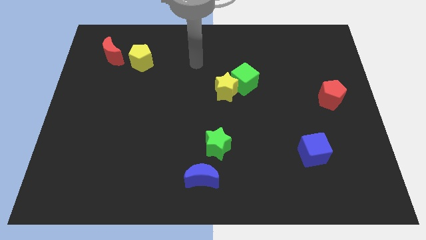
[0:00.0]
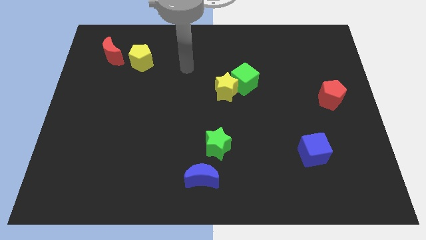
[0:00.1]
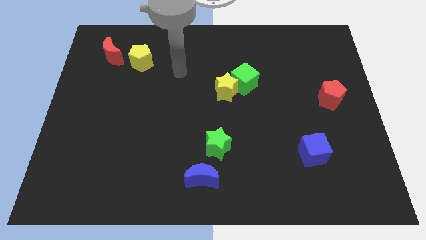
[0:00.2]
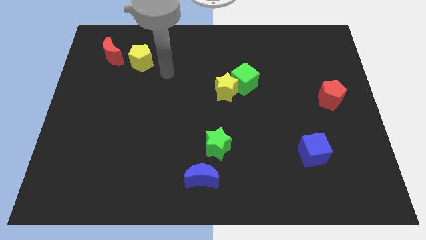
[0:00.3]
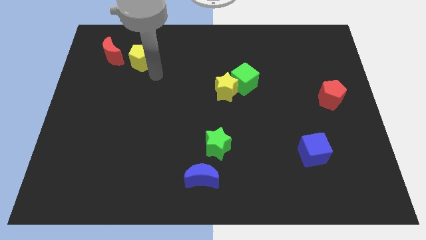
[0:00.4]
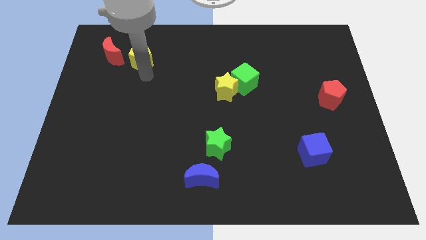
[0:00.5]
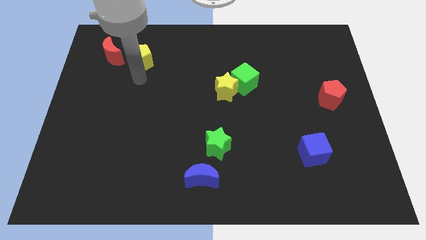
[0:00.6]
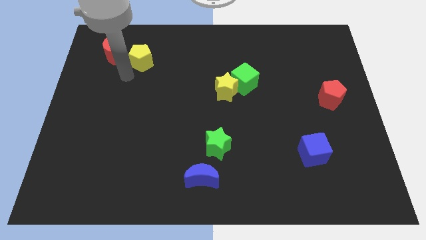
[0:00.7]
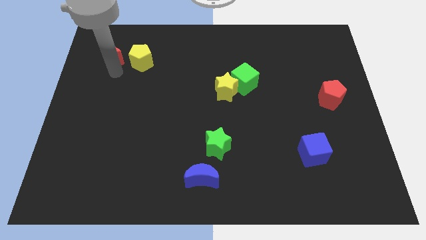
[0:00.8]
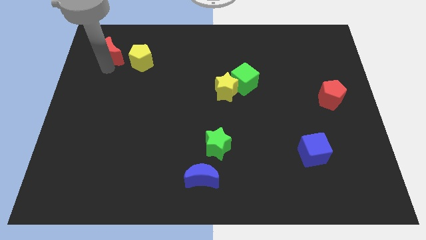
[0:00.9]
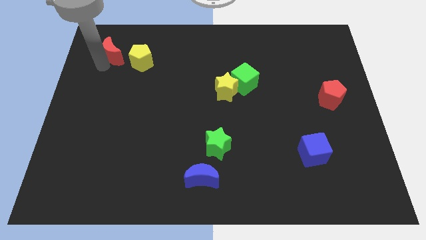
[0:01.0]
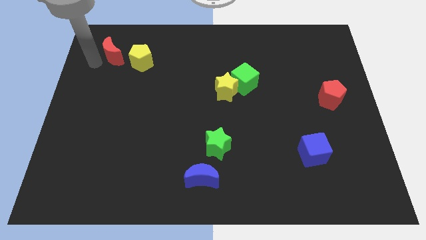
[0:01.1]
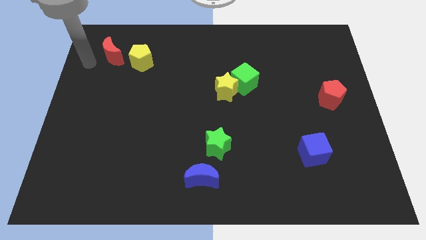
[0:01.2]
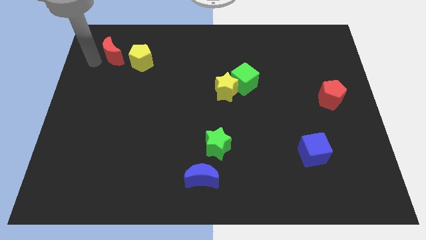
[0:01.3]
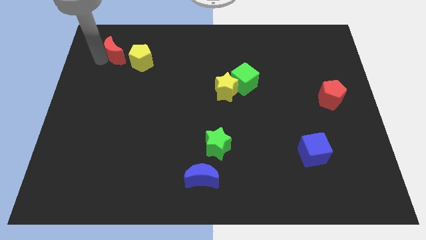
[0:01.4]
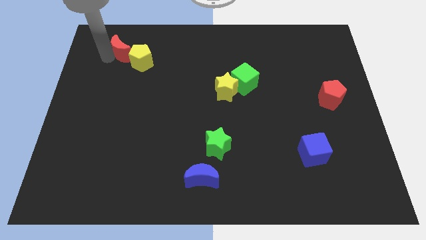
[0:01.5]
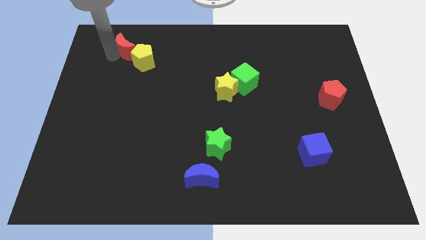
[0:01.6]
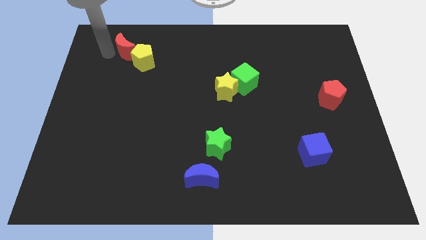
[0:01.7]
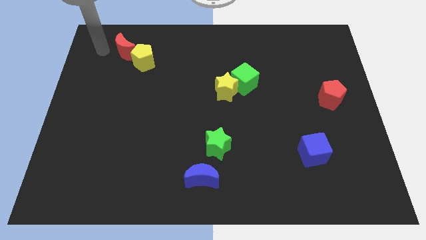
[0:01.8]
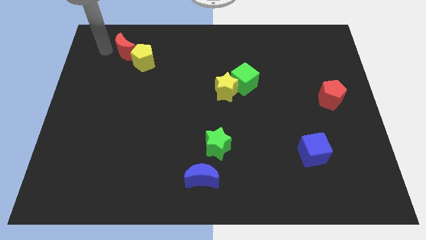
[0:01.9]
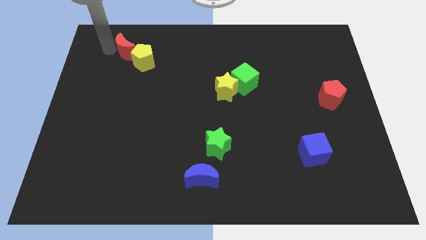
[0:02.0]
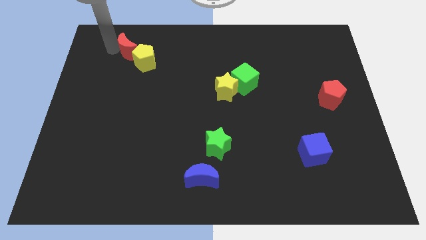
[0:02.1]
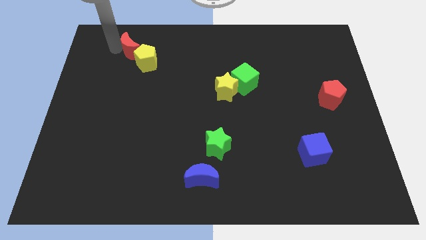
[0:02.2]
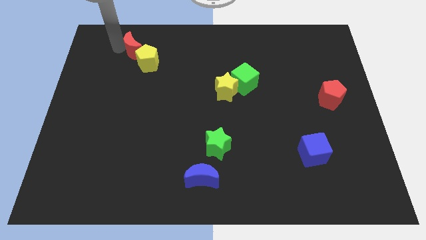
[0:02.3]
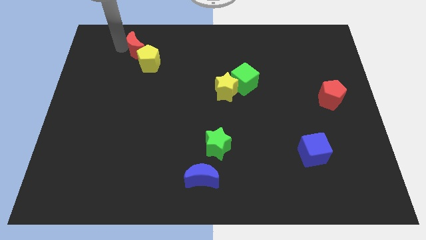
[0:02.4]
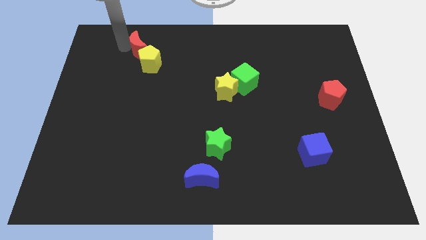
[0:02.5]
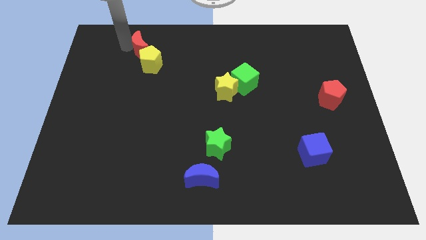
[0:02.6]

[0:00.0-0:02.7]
push the red moon a little bit to the right

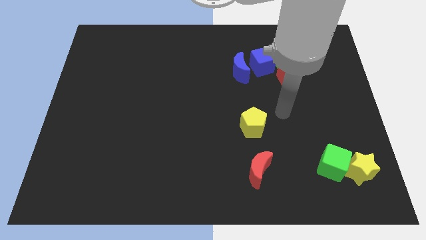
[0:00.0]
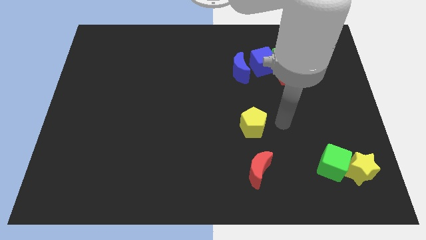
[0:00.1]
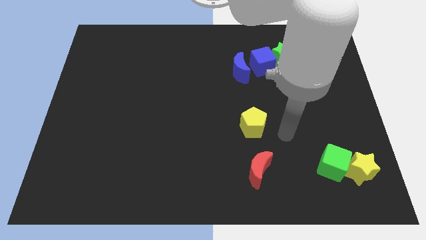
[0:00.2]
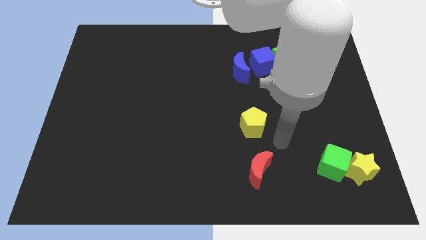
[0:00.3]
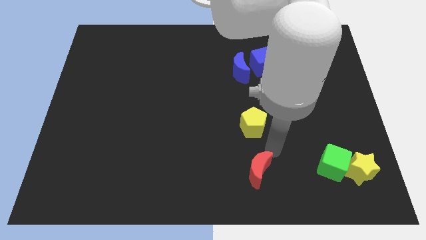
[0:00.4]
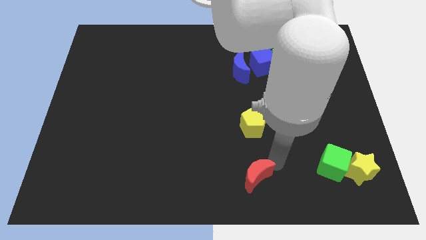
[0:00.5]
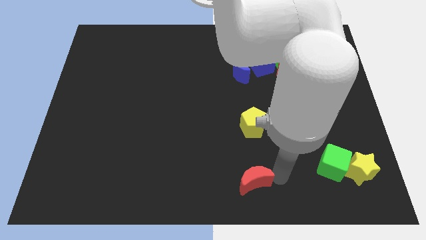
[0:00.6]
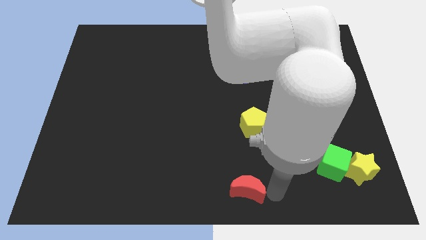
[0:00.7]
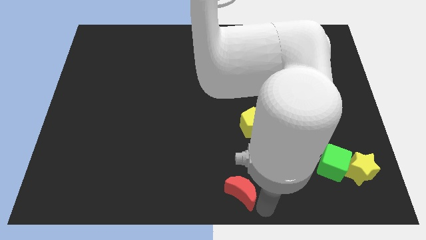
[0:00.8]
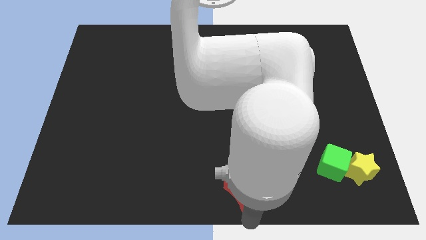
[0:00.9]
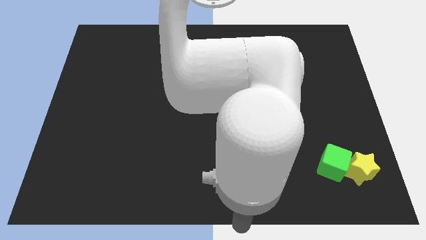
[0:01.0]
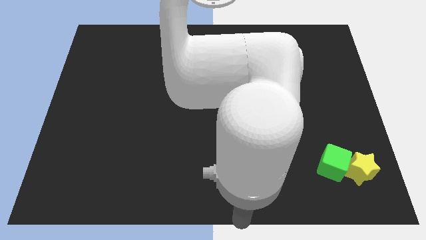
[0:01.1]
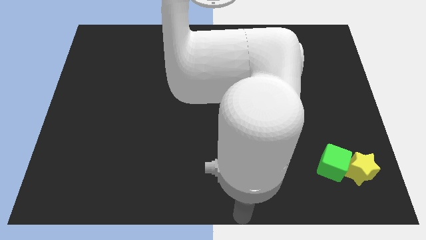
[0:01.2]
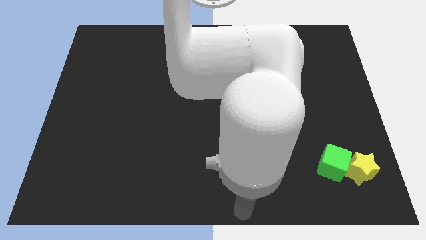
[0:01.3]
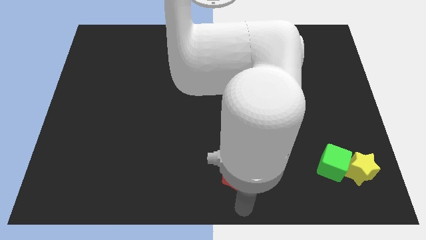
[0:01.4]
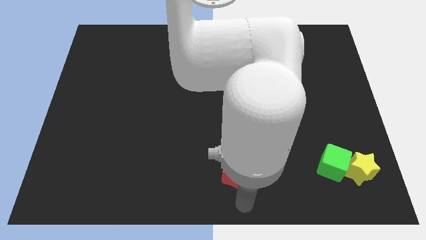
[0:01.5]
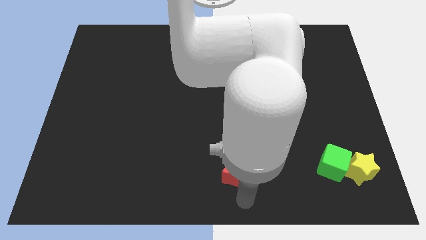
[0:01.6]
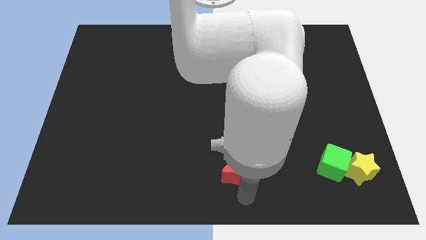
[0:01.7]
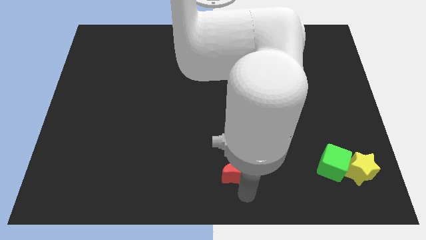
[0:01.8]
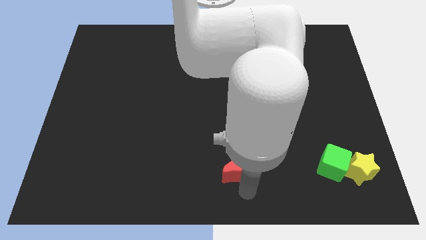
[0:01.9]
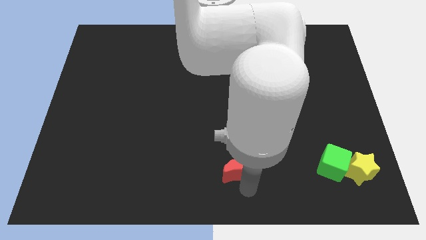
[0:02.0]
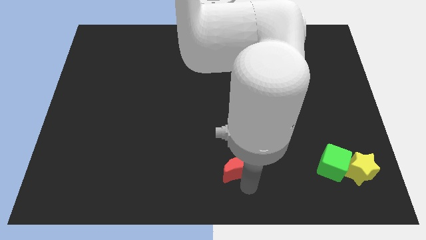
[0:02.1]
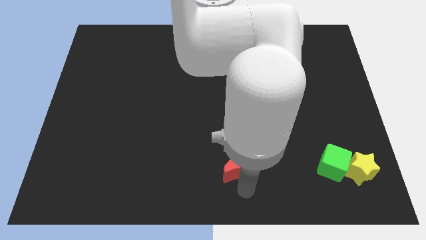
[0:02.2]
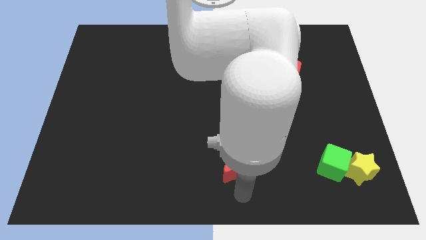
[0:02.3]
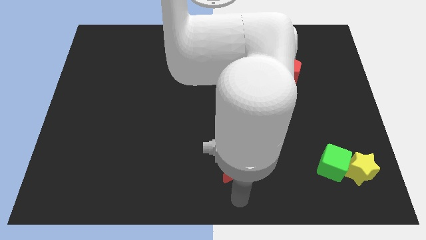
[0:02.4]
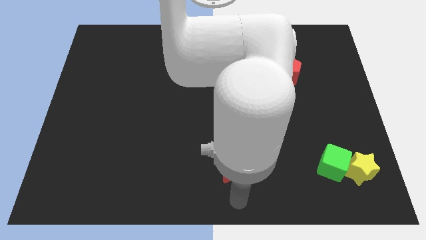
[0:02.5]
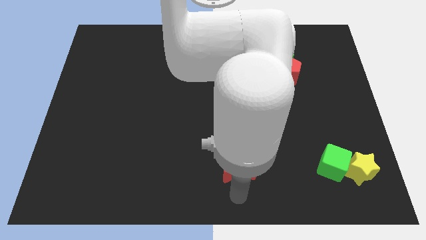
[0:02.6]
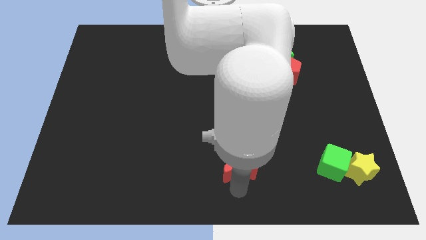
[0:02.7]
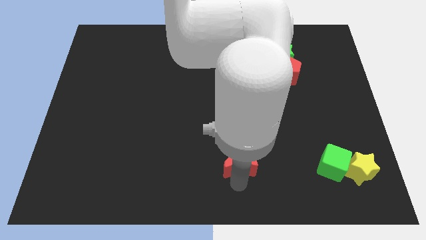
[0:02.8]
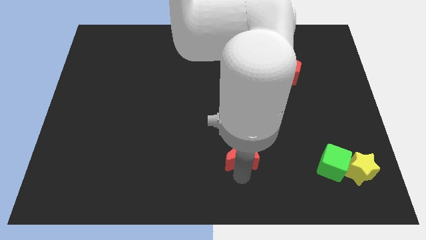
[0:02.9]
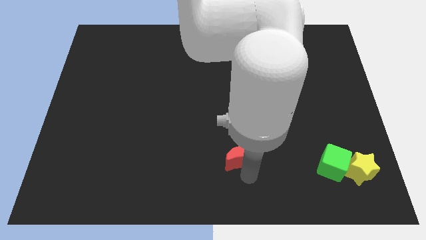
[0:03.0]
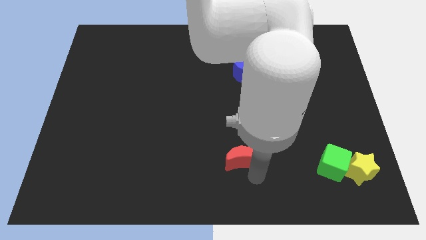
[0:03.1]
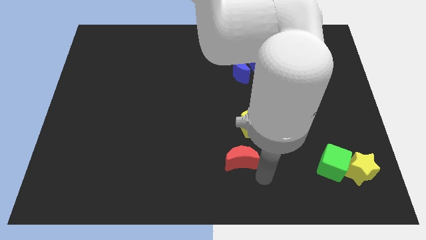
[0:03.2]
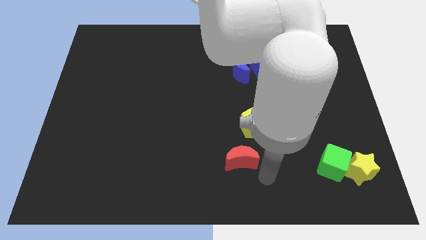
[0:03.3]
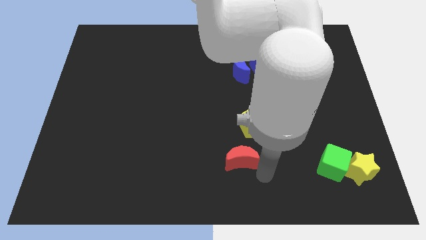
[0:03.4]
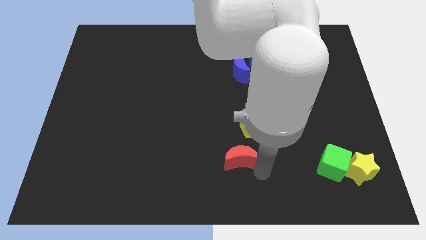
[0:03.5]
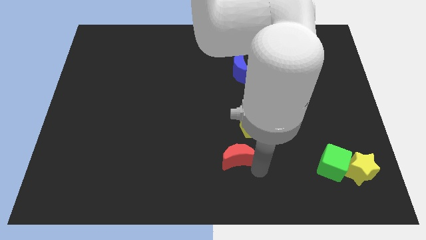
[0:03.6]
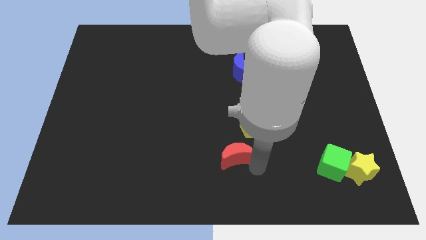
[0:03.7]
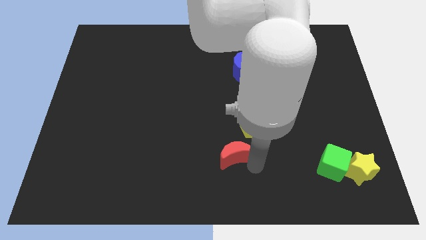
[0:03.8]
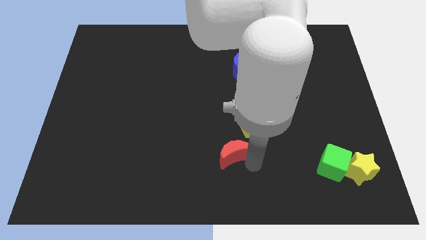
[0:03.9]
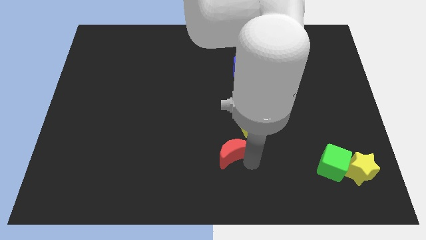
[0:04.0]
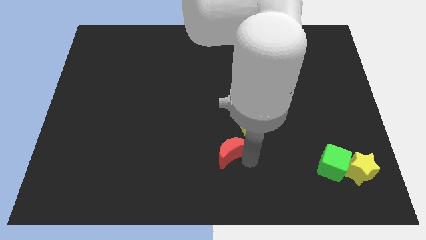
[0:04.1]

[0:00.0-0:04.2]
slide the red moon a little bit diagonally upwards and left

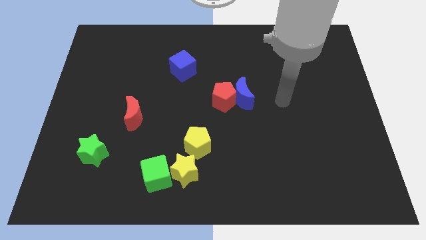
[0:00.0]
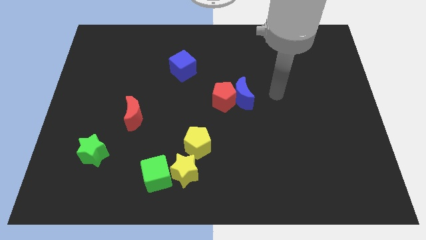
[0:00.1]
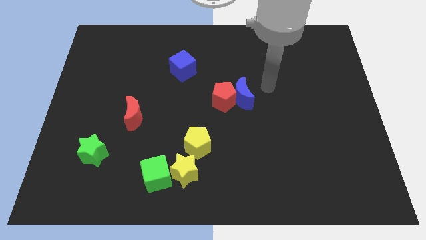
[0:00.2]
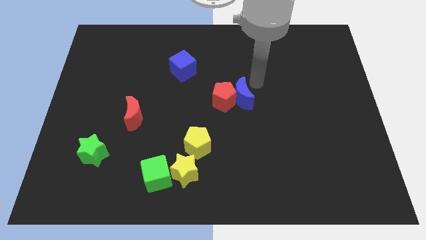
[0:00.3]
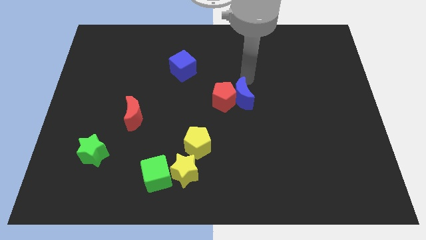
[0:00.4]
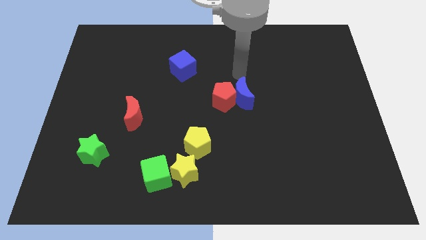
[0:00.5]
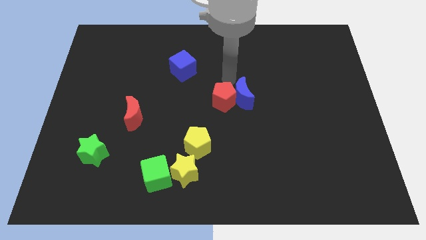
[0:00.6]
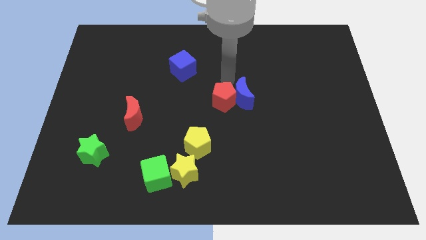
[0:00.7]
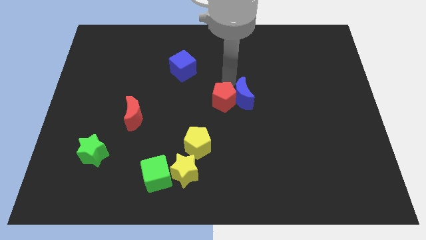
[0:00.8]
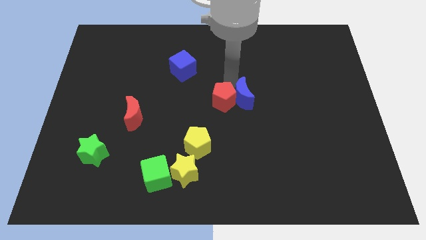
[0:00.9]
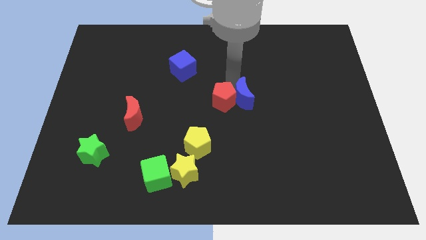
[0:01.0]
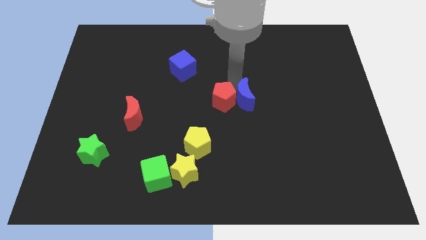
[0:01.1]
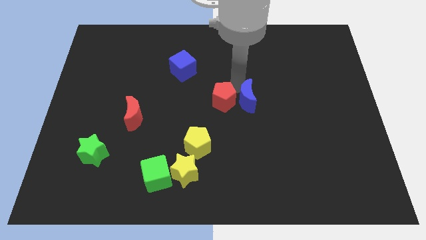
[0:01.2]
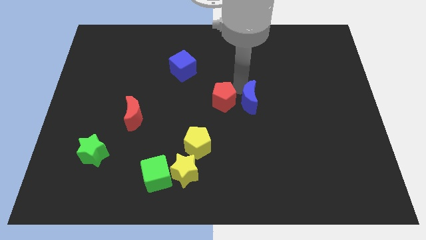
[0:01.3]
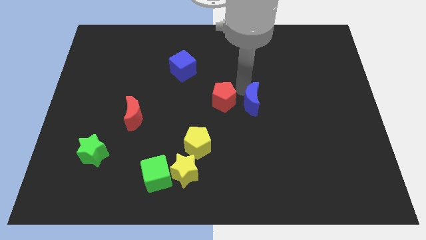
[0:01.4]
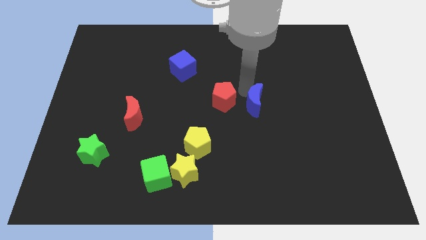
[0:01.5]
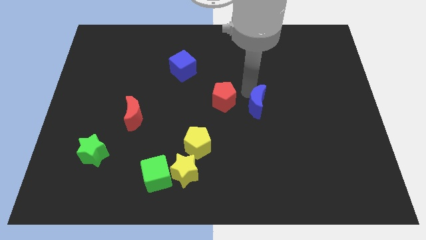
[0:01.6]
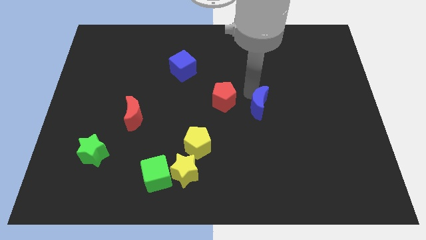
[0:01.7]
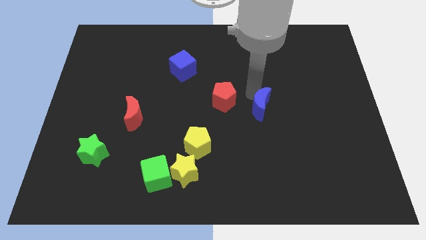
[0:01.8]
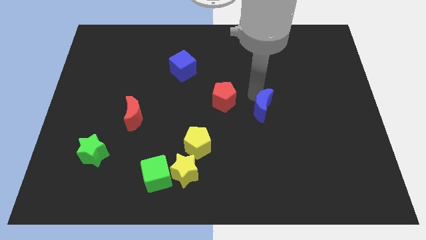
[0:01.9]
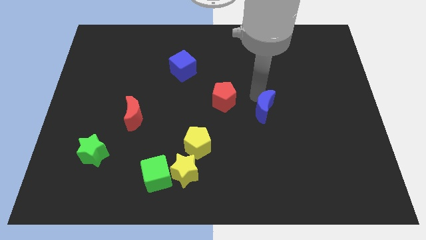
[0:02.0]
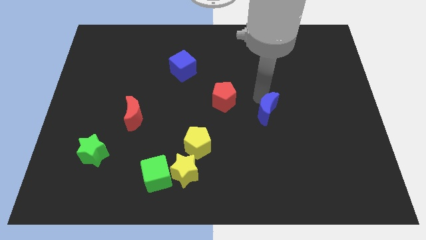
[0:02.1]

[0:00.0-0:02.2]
slide the blue moon somewhat downwards and right diagonally
